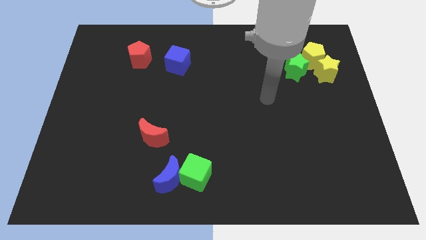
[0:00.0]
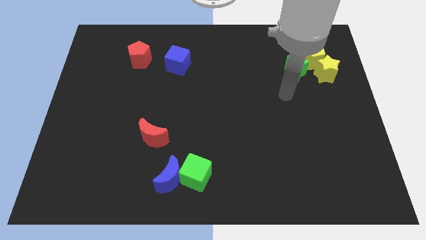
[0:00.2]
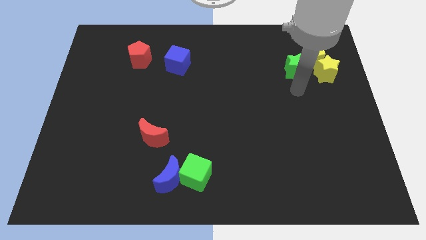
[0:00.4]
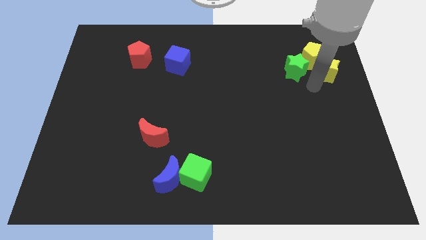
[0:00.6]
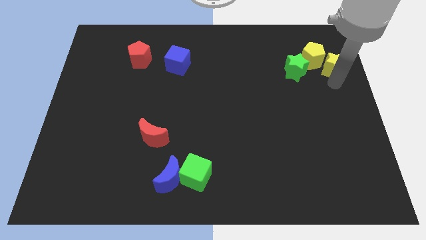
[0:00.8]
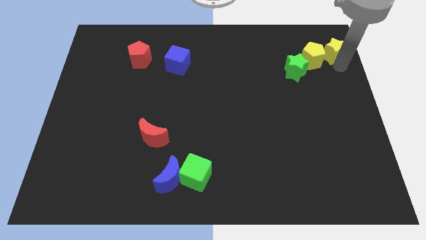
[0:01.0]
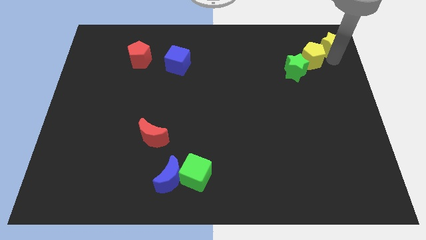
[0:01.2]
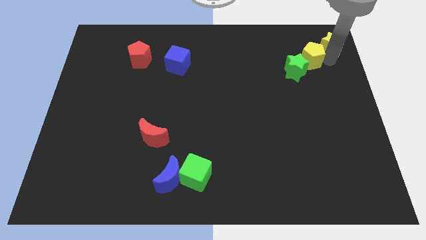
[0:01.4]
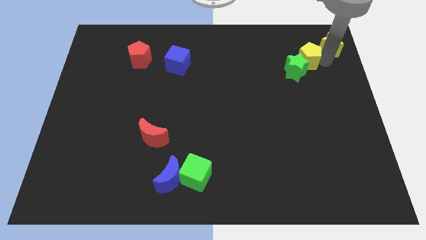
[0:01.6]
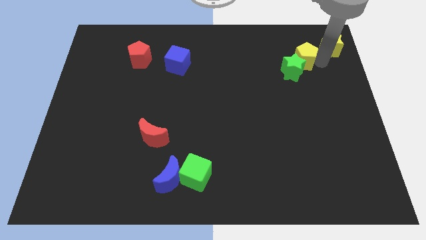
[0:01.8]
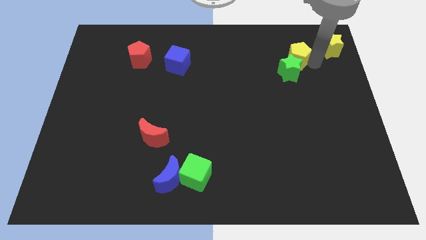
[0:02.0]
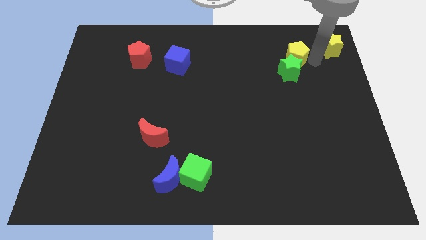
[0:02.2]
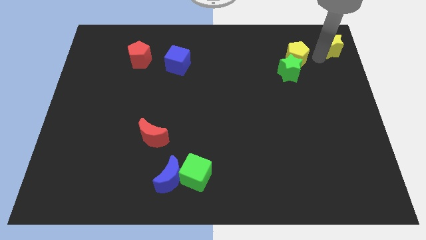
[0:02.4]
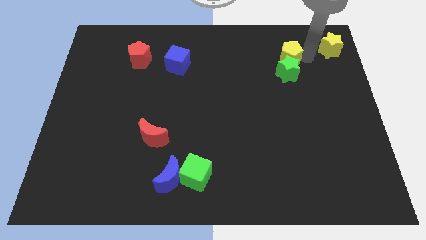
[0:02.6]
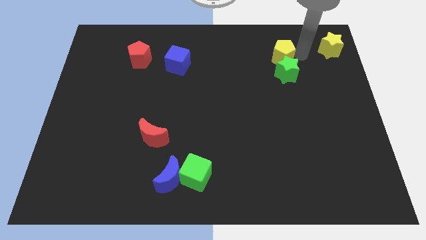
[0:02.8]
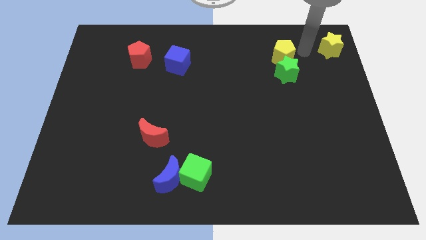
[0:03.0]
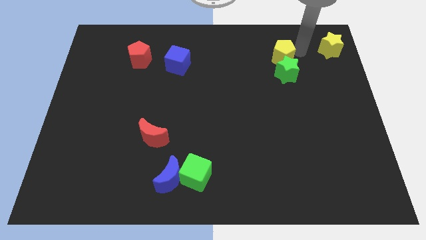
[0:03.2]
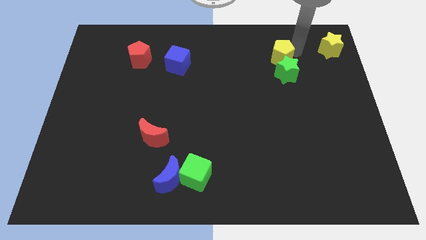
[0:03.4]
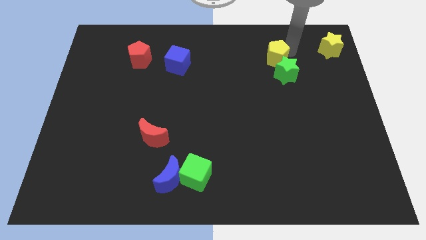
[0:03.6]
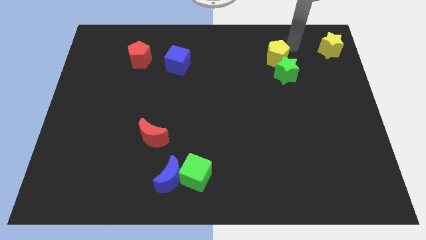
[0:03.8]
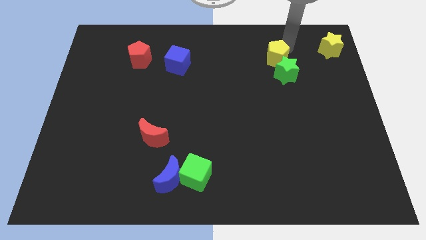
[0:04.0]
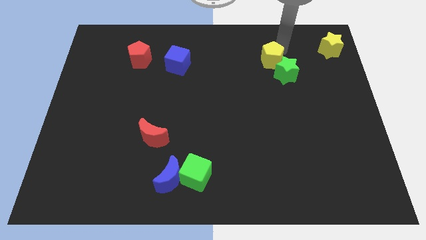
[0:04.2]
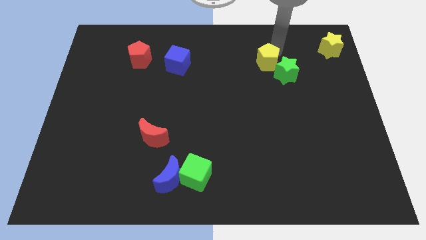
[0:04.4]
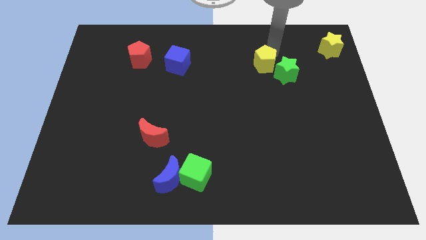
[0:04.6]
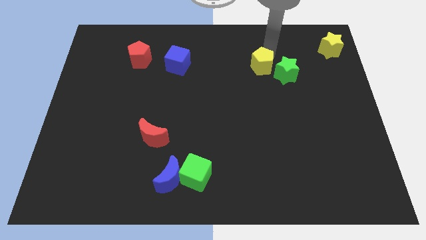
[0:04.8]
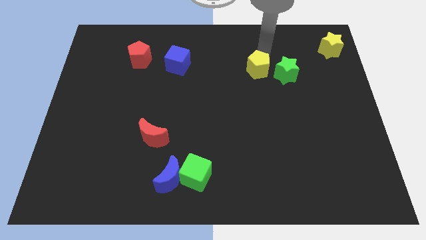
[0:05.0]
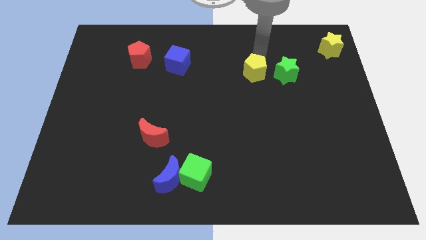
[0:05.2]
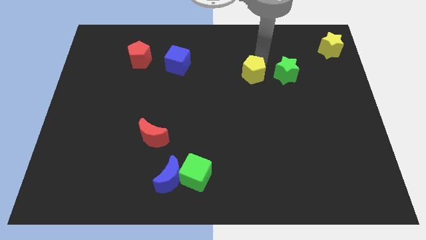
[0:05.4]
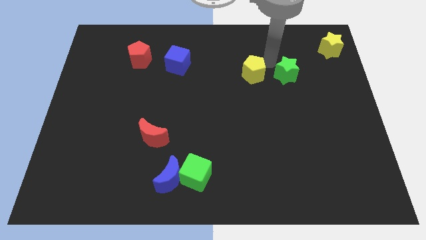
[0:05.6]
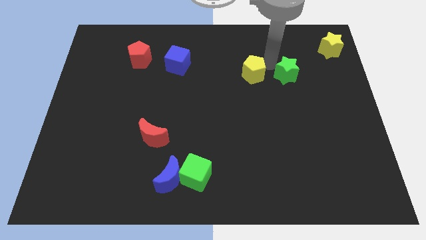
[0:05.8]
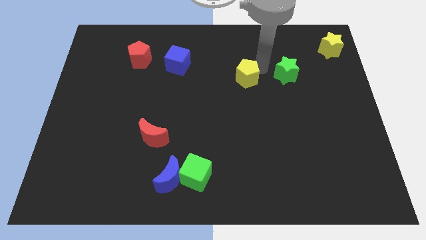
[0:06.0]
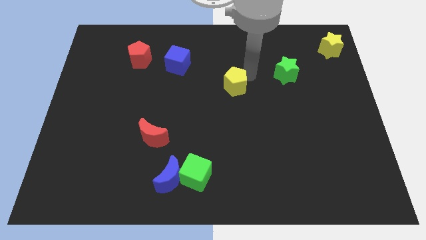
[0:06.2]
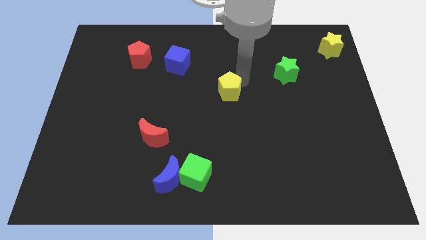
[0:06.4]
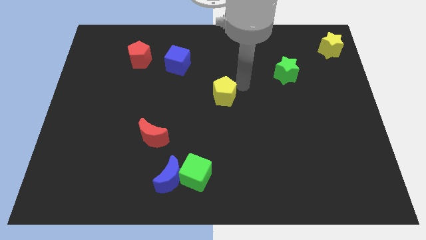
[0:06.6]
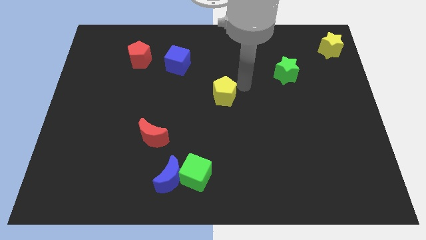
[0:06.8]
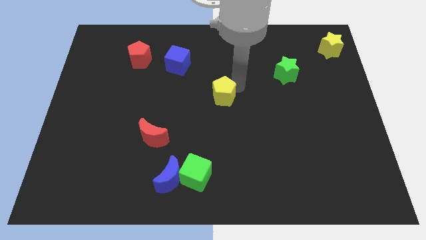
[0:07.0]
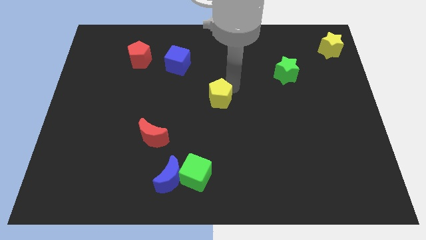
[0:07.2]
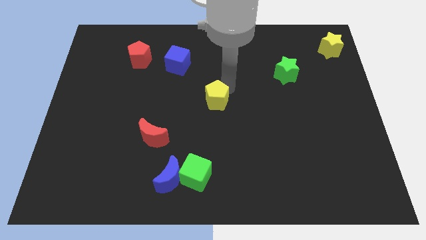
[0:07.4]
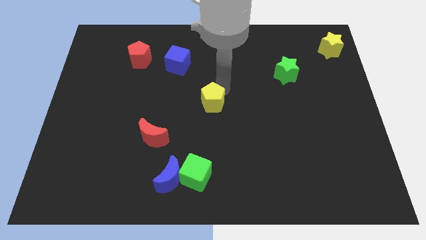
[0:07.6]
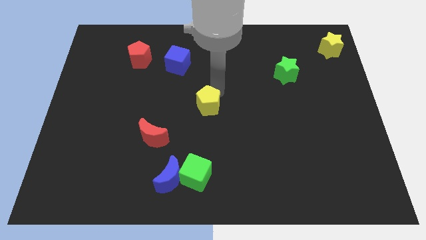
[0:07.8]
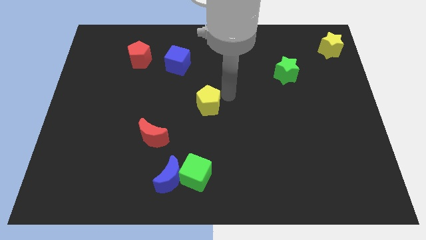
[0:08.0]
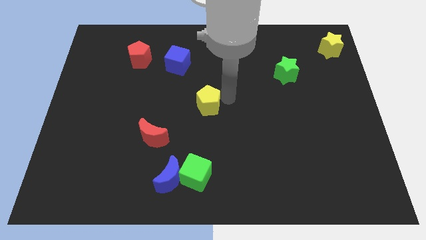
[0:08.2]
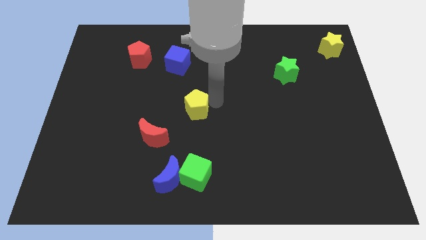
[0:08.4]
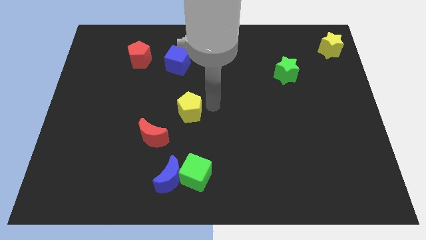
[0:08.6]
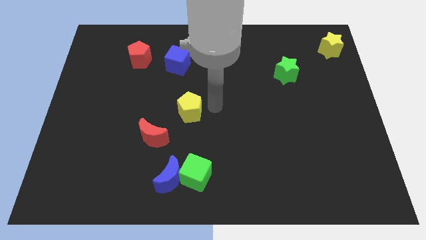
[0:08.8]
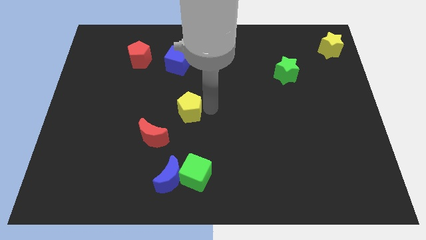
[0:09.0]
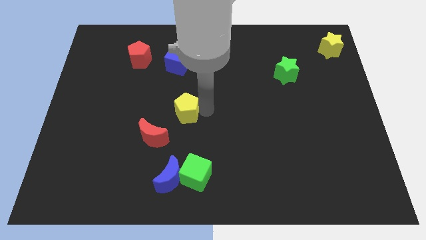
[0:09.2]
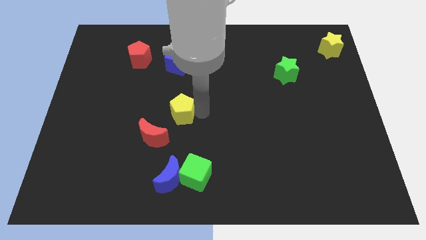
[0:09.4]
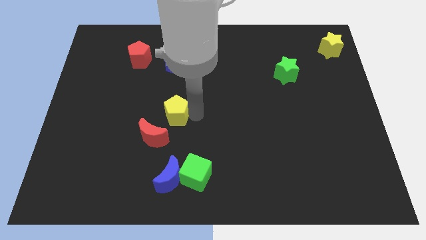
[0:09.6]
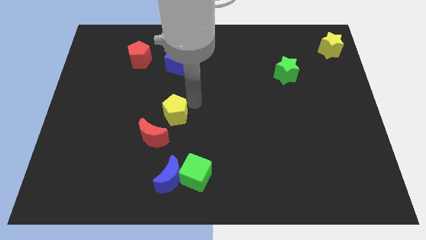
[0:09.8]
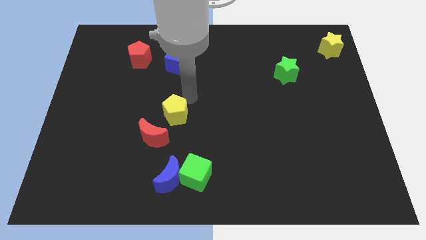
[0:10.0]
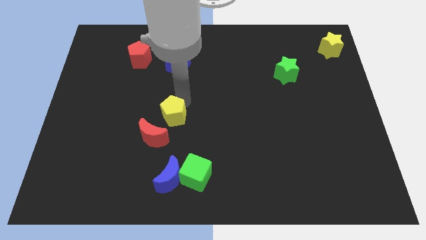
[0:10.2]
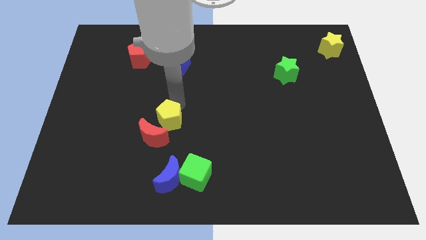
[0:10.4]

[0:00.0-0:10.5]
move the yellow pentagon to the red moon

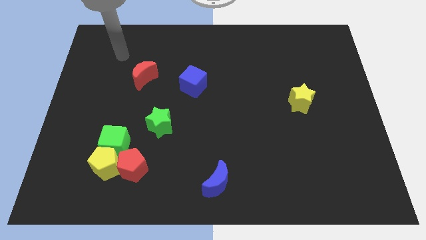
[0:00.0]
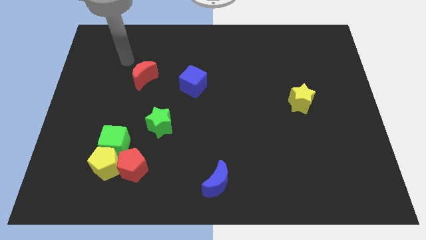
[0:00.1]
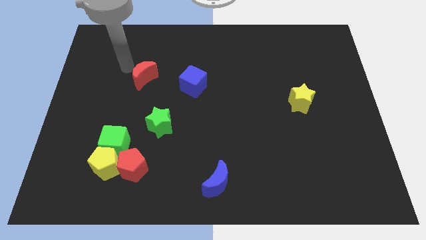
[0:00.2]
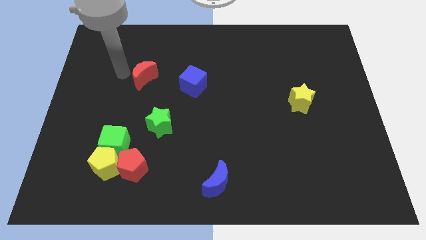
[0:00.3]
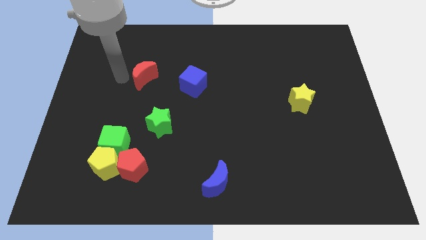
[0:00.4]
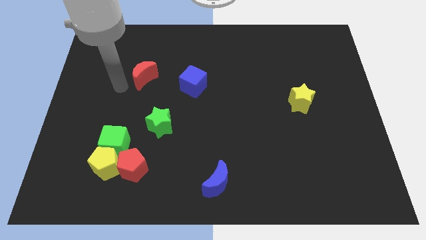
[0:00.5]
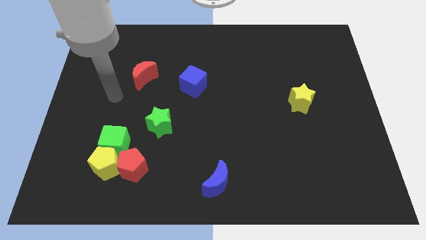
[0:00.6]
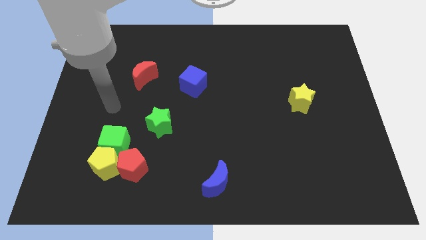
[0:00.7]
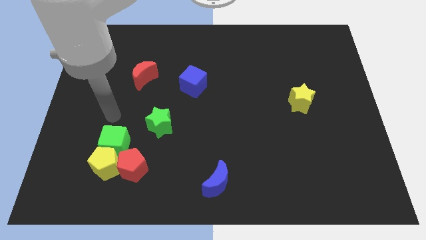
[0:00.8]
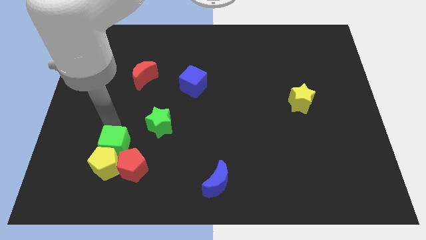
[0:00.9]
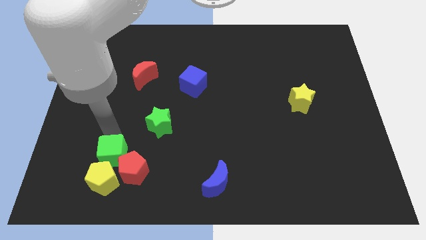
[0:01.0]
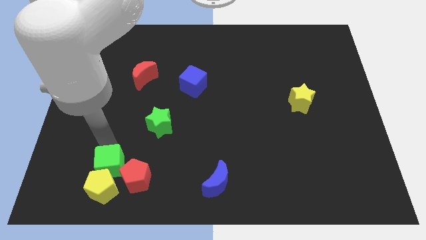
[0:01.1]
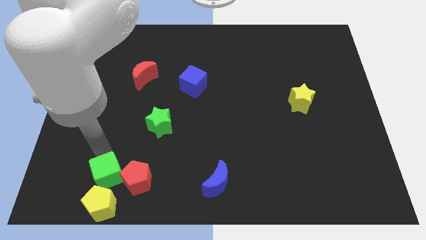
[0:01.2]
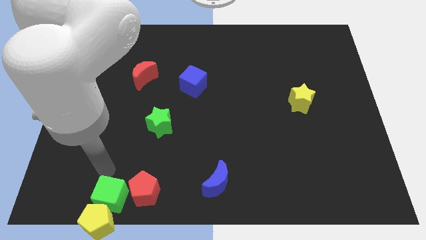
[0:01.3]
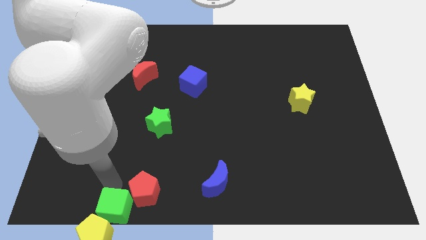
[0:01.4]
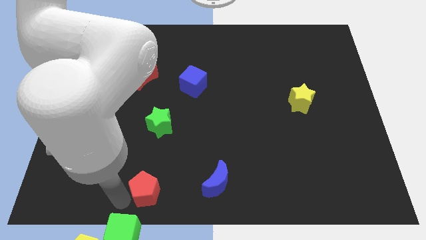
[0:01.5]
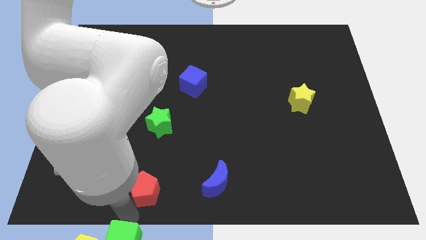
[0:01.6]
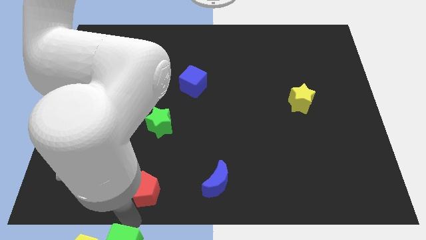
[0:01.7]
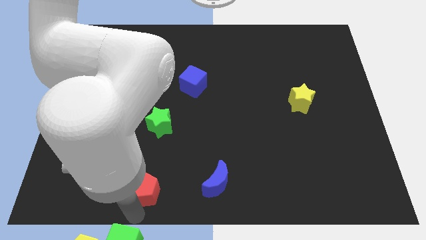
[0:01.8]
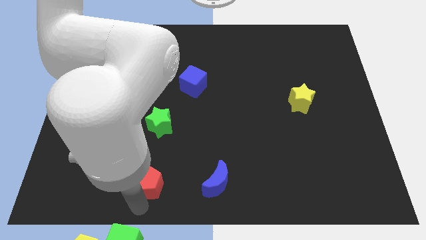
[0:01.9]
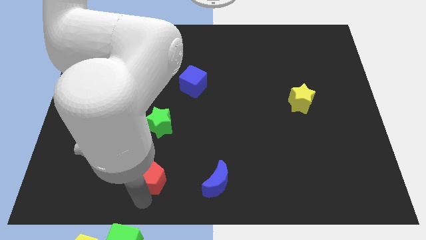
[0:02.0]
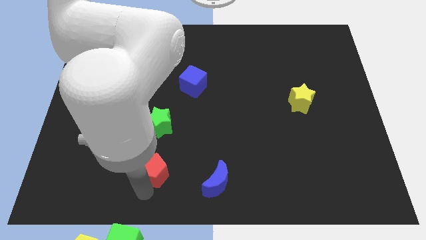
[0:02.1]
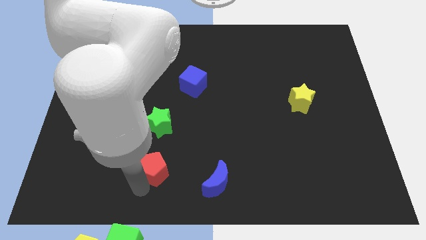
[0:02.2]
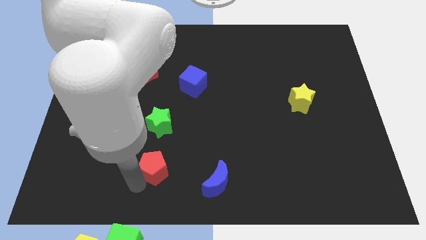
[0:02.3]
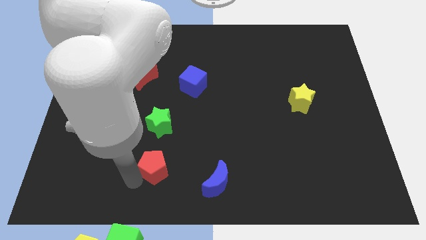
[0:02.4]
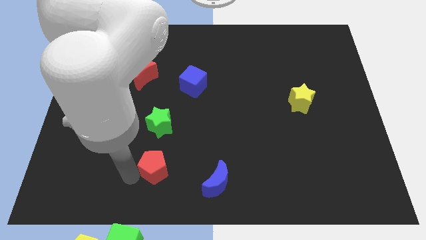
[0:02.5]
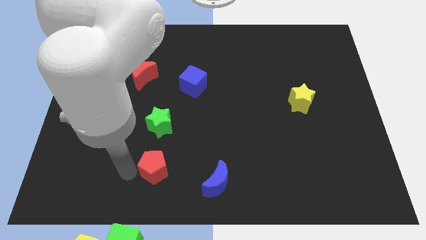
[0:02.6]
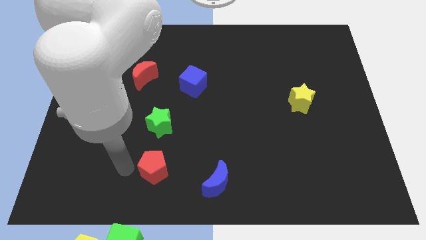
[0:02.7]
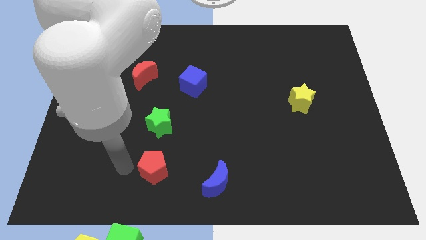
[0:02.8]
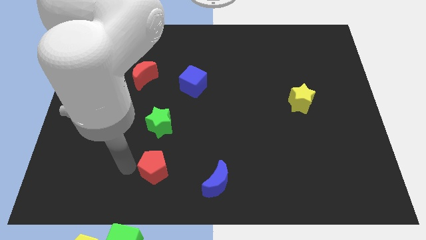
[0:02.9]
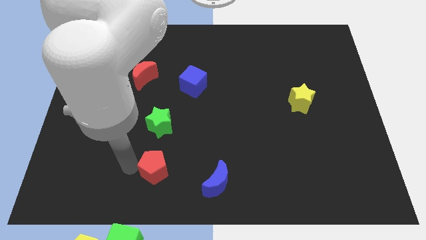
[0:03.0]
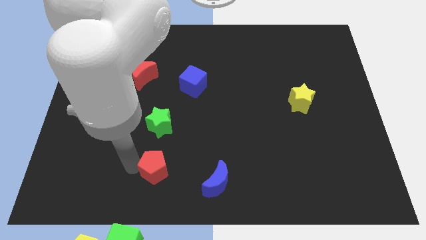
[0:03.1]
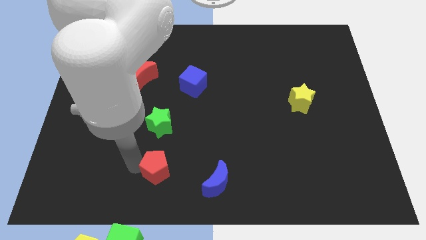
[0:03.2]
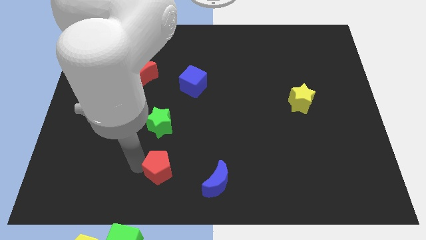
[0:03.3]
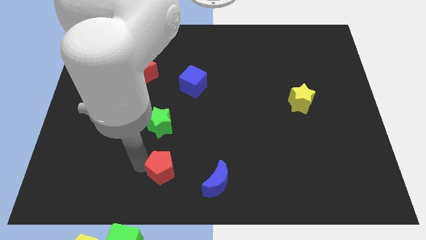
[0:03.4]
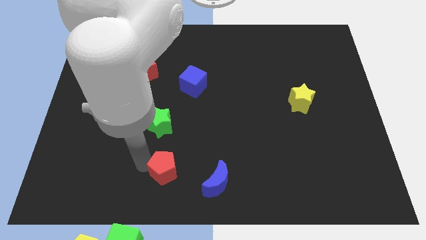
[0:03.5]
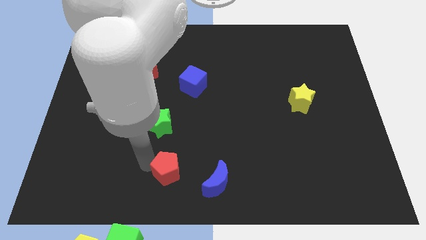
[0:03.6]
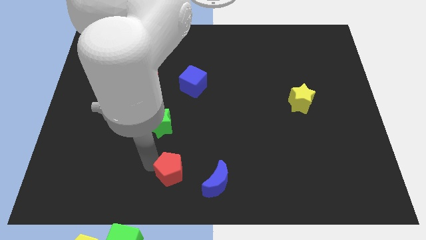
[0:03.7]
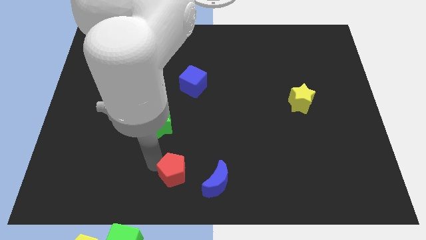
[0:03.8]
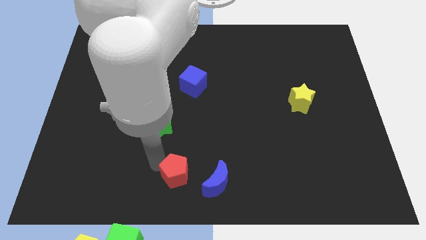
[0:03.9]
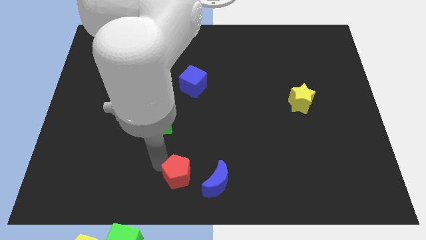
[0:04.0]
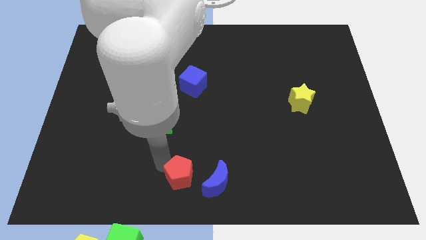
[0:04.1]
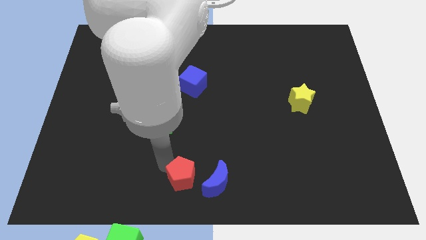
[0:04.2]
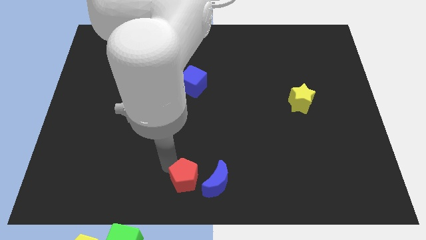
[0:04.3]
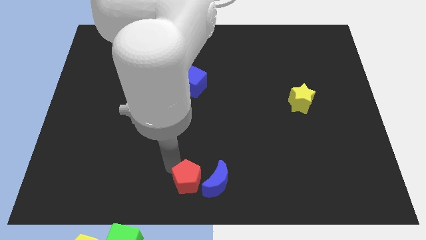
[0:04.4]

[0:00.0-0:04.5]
move the red pentagon to the blue moon
